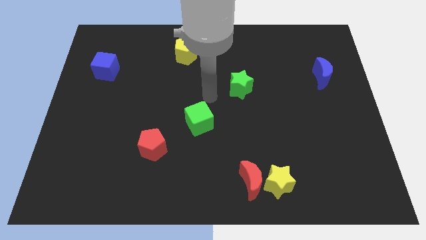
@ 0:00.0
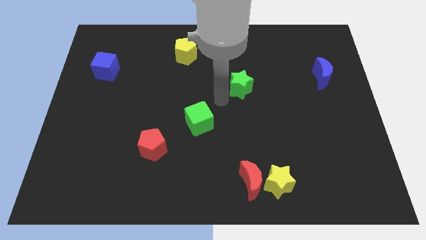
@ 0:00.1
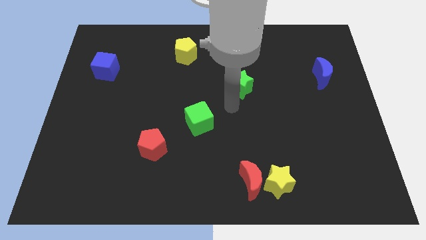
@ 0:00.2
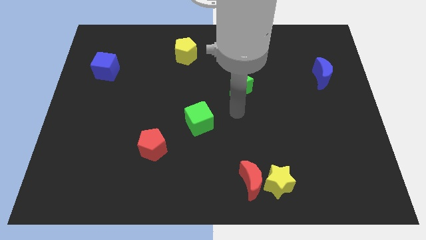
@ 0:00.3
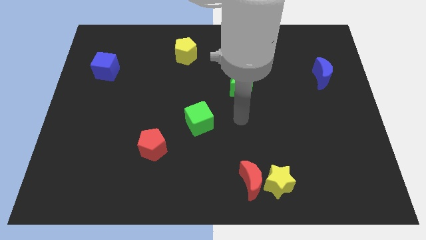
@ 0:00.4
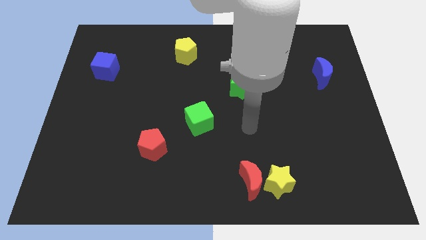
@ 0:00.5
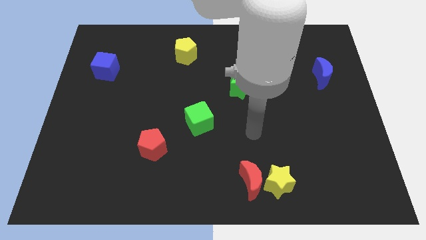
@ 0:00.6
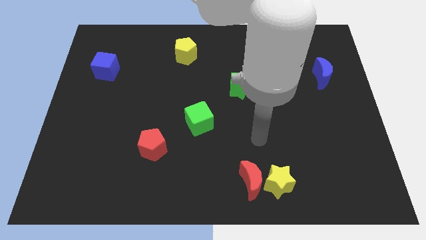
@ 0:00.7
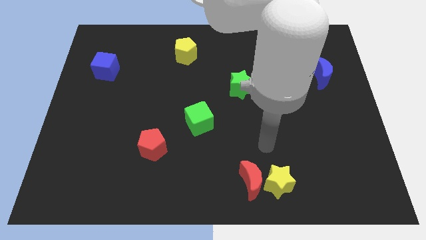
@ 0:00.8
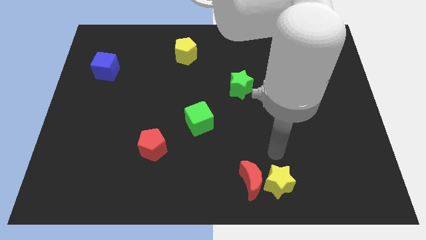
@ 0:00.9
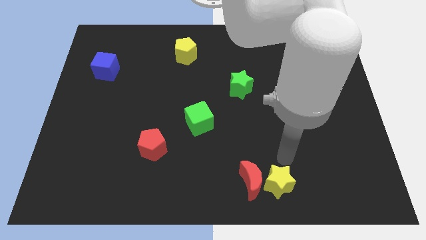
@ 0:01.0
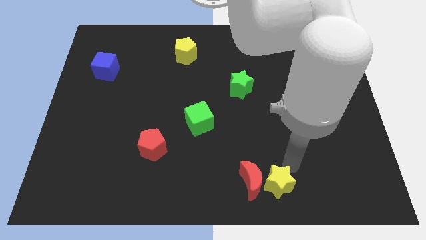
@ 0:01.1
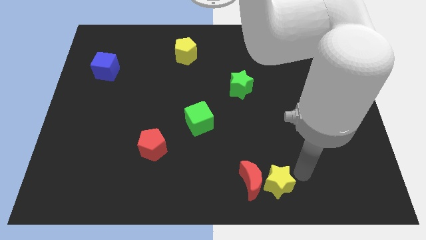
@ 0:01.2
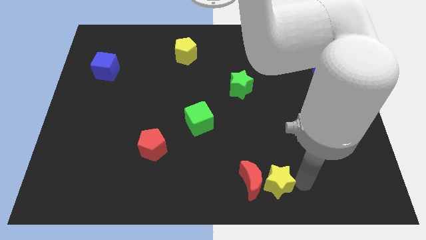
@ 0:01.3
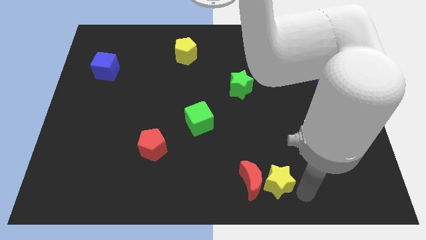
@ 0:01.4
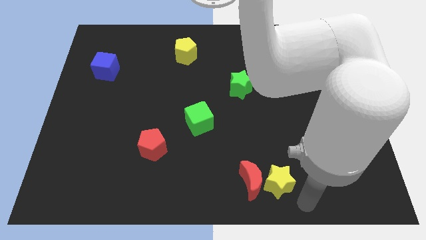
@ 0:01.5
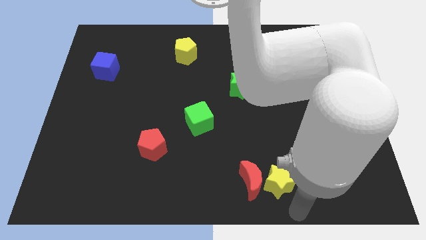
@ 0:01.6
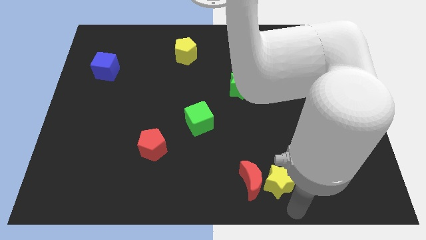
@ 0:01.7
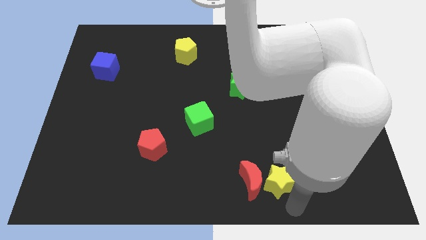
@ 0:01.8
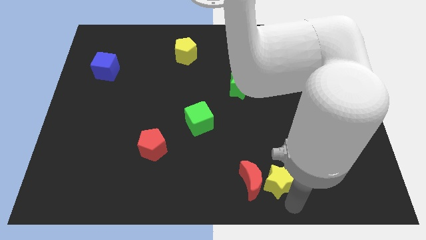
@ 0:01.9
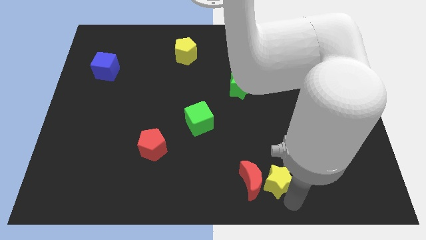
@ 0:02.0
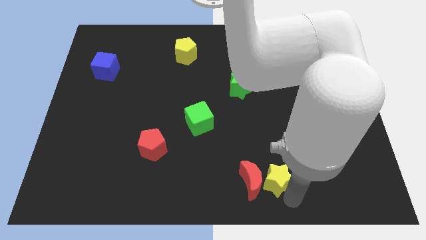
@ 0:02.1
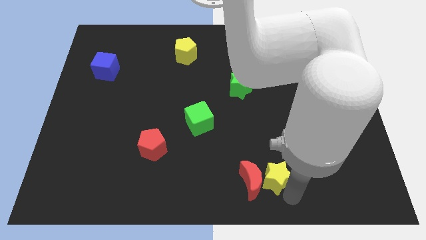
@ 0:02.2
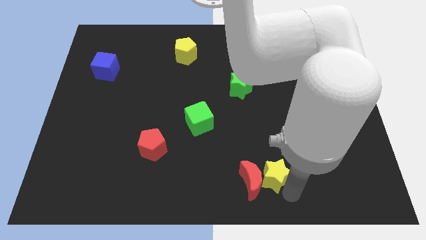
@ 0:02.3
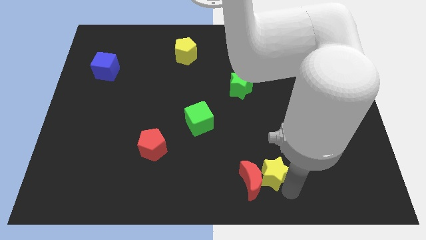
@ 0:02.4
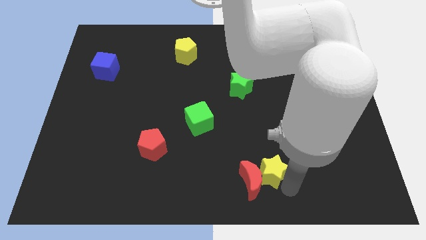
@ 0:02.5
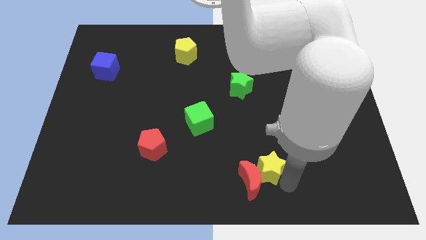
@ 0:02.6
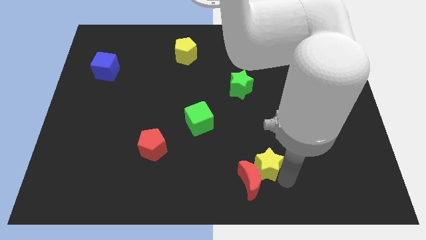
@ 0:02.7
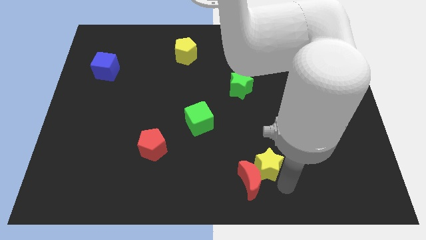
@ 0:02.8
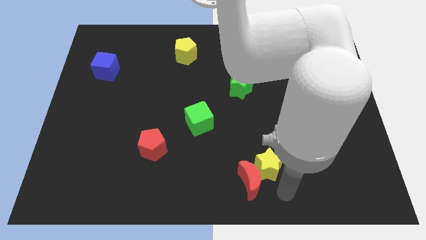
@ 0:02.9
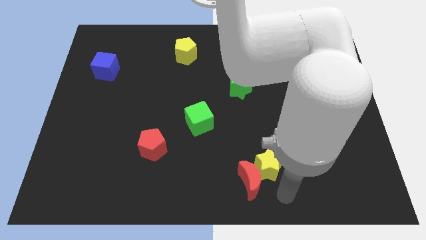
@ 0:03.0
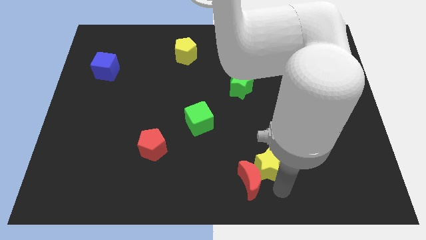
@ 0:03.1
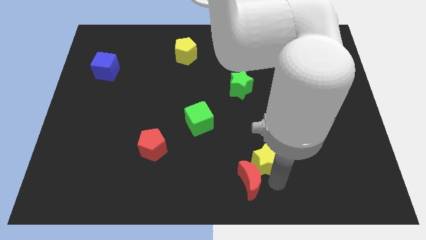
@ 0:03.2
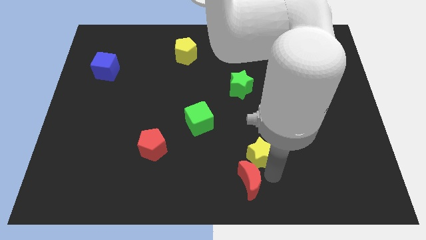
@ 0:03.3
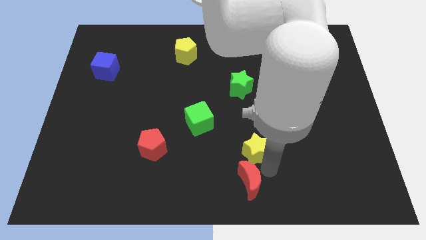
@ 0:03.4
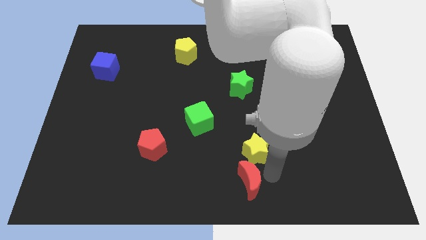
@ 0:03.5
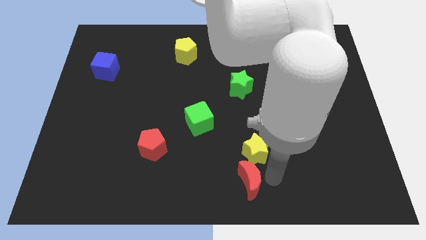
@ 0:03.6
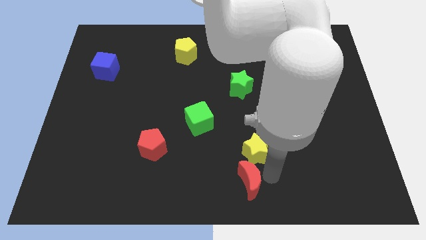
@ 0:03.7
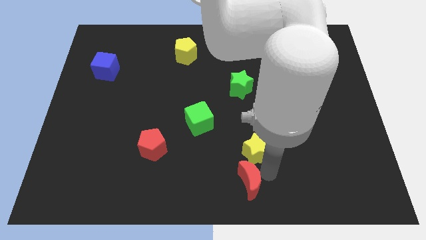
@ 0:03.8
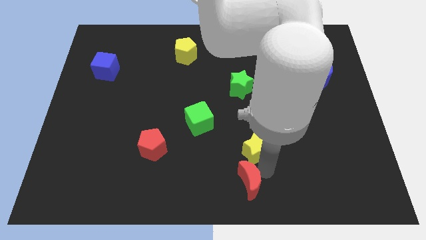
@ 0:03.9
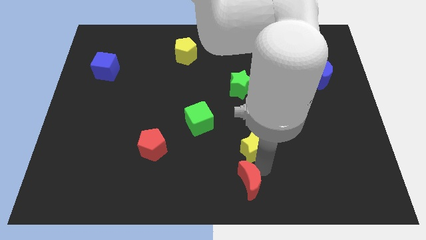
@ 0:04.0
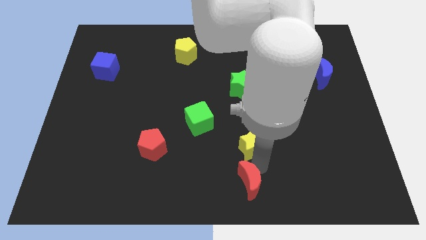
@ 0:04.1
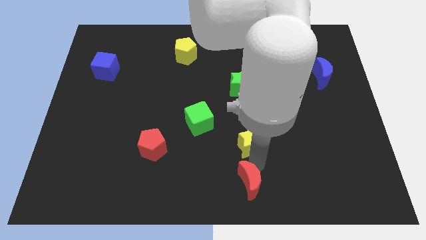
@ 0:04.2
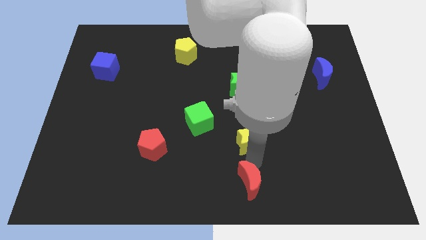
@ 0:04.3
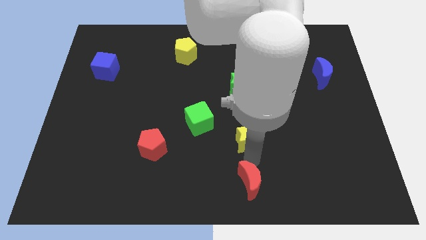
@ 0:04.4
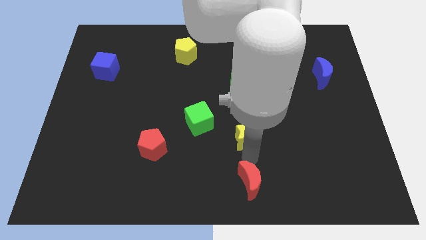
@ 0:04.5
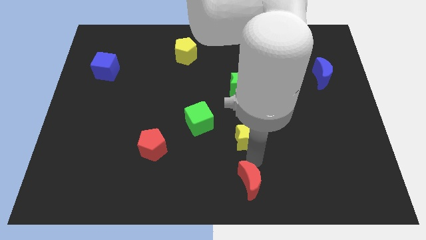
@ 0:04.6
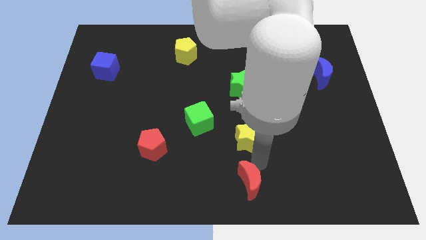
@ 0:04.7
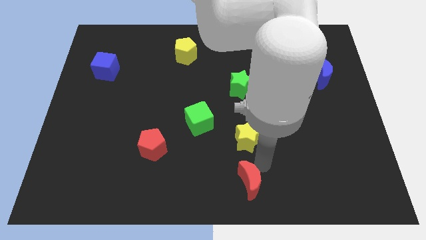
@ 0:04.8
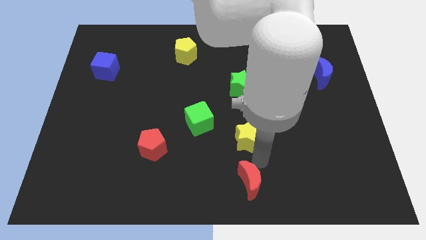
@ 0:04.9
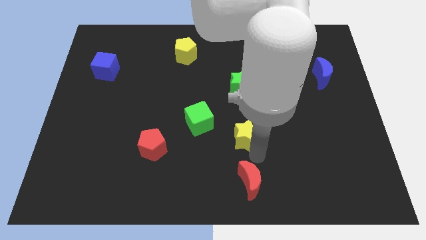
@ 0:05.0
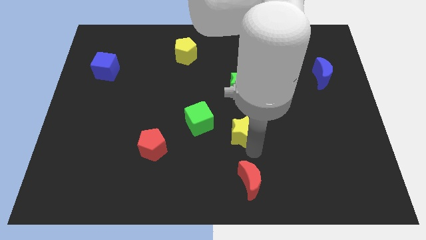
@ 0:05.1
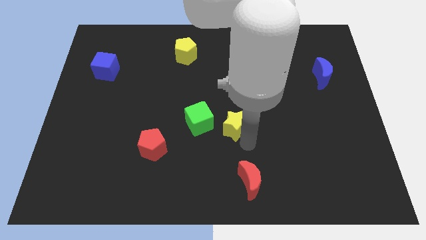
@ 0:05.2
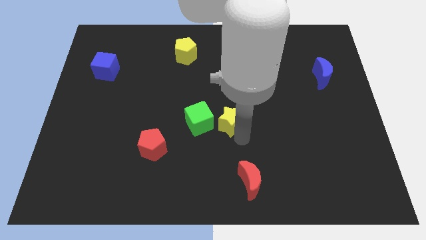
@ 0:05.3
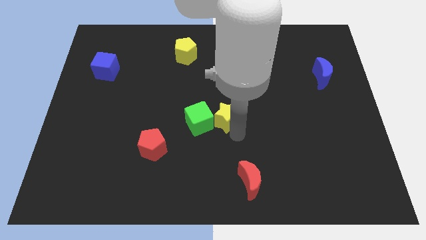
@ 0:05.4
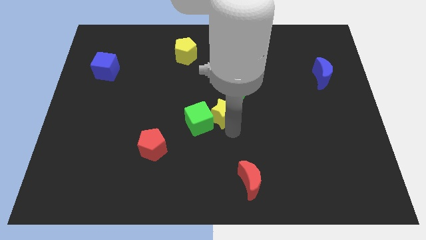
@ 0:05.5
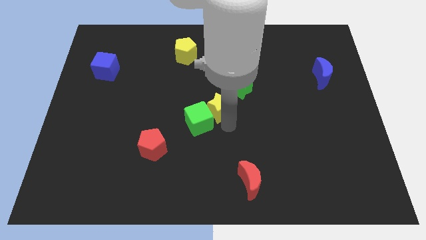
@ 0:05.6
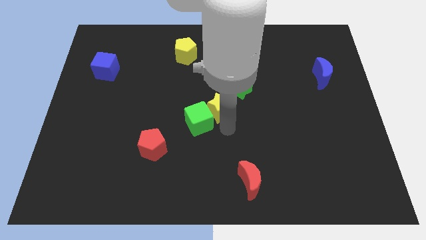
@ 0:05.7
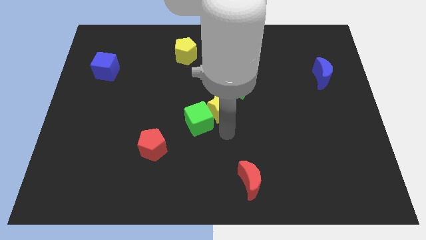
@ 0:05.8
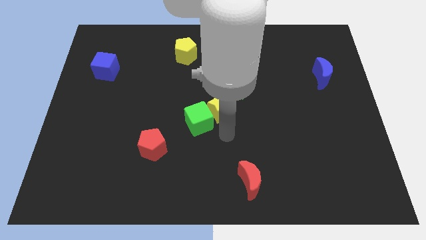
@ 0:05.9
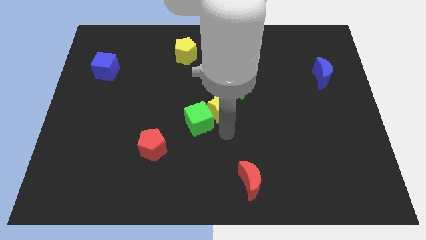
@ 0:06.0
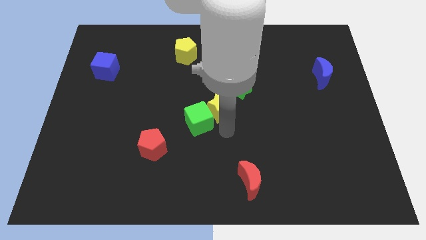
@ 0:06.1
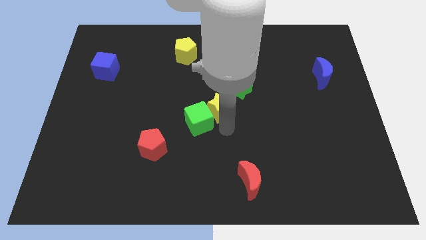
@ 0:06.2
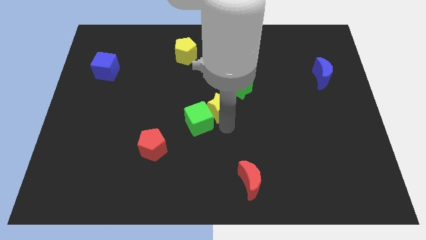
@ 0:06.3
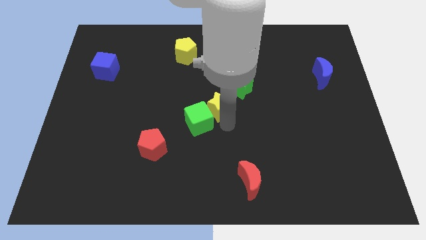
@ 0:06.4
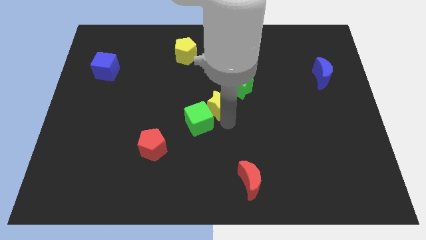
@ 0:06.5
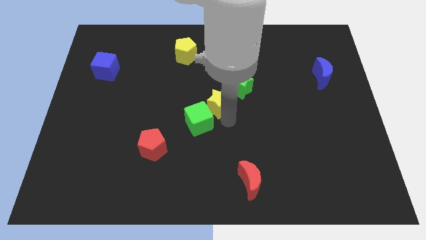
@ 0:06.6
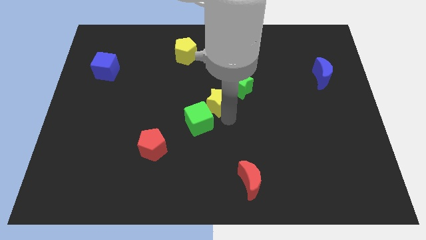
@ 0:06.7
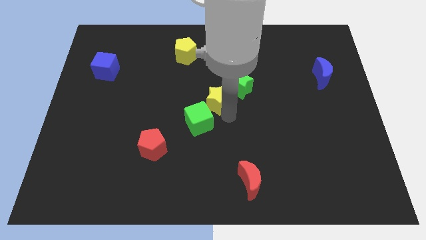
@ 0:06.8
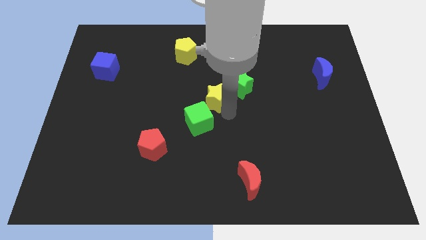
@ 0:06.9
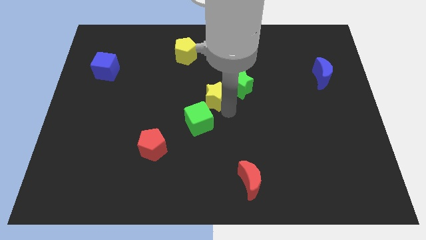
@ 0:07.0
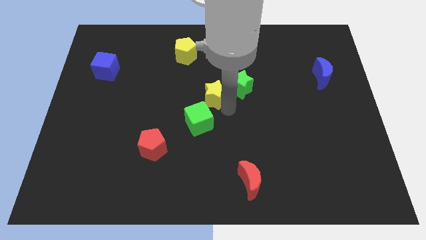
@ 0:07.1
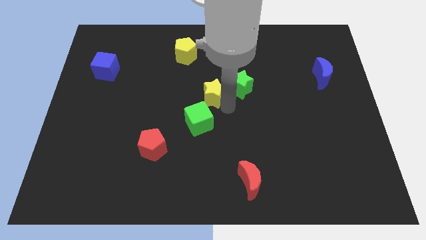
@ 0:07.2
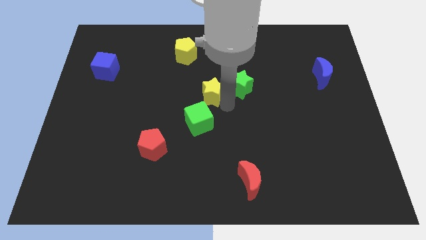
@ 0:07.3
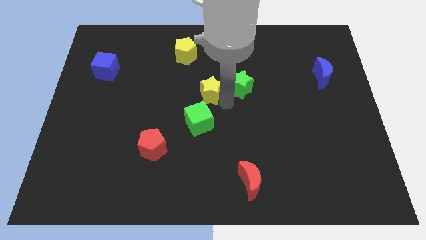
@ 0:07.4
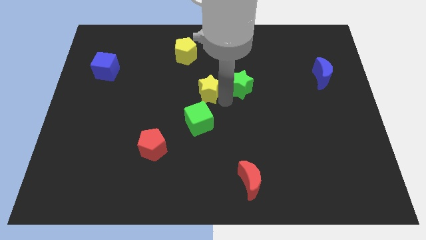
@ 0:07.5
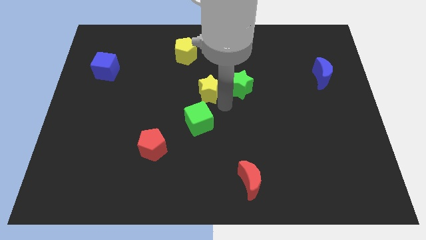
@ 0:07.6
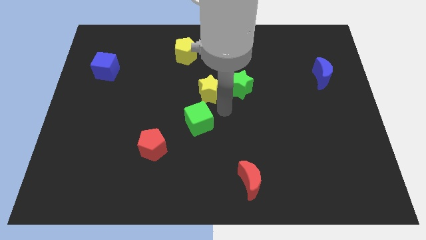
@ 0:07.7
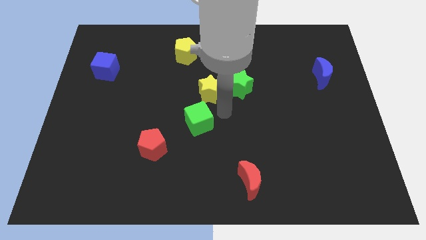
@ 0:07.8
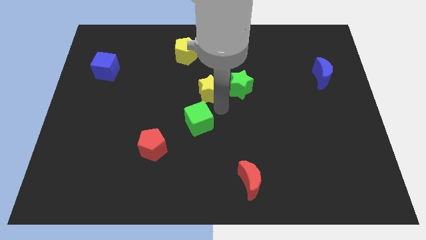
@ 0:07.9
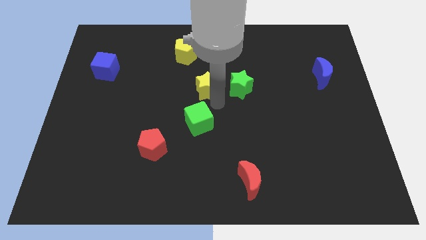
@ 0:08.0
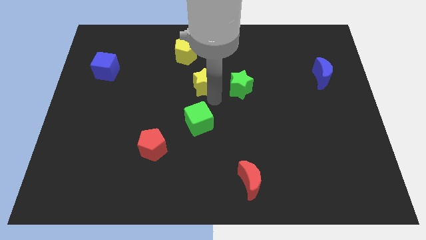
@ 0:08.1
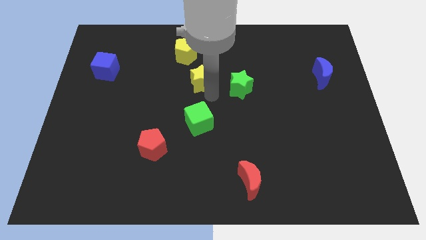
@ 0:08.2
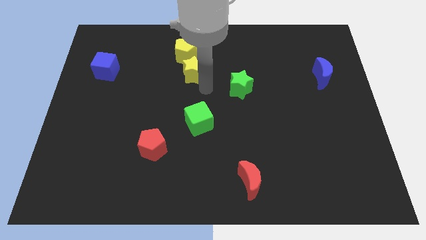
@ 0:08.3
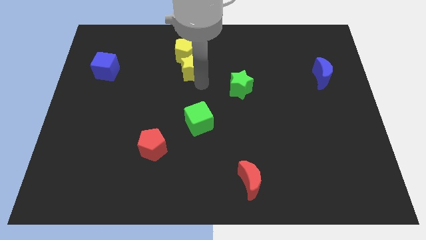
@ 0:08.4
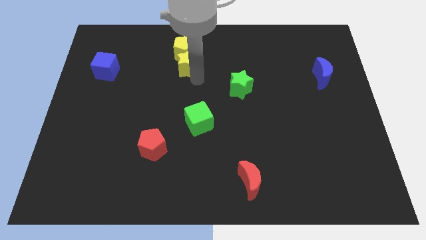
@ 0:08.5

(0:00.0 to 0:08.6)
move the yellow star close to the yellow pentagon
